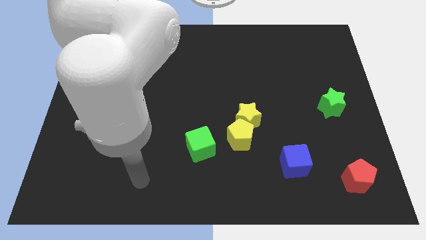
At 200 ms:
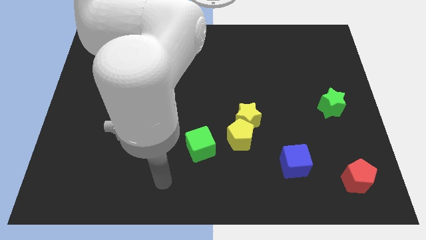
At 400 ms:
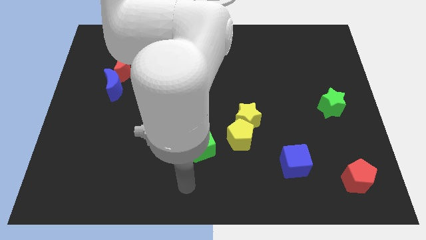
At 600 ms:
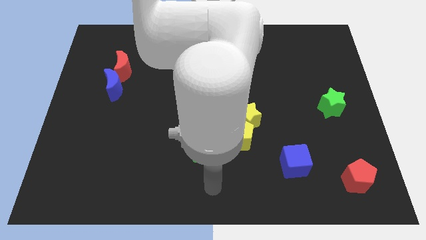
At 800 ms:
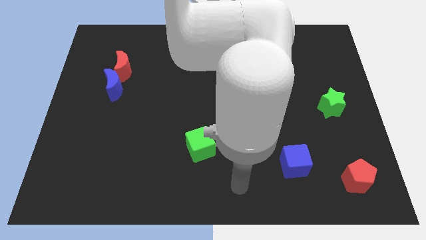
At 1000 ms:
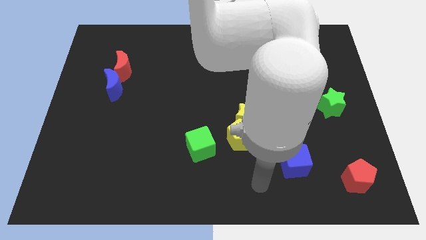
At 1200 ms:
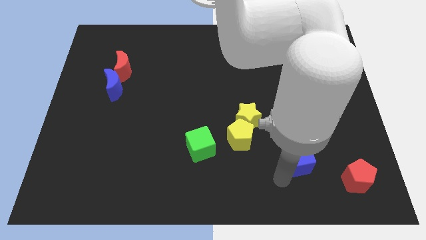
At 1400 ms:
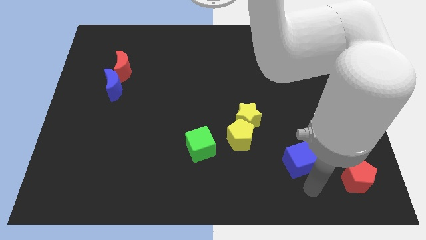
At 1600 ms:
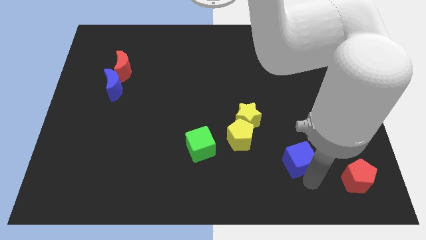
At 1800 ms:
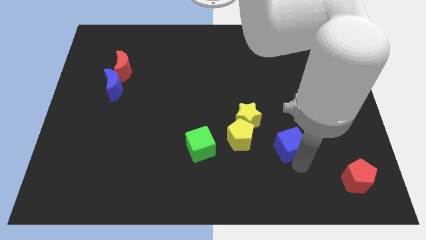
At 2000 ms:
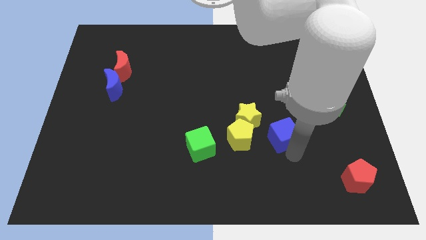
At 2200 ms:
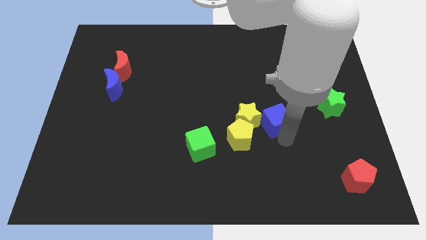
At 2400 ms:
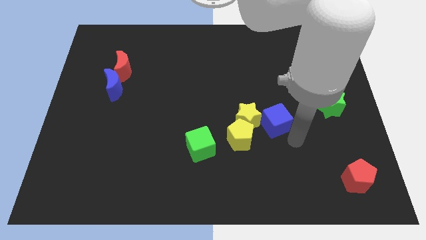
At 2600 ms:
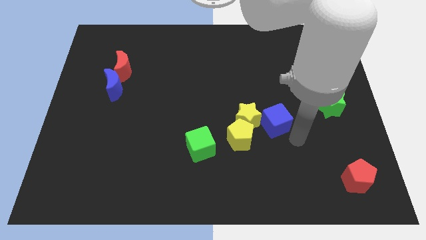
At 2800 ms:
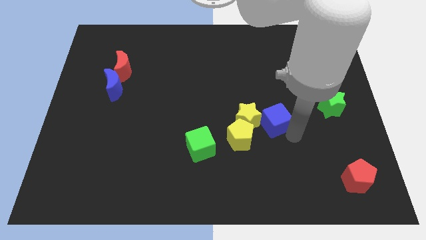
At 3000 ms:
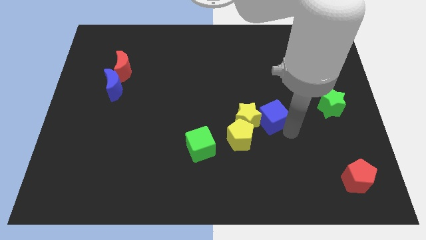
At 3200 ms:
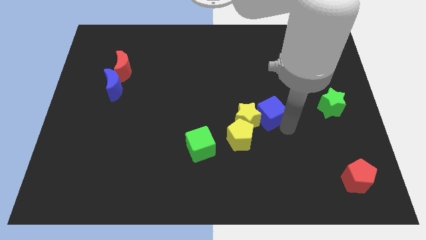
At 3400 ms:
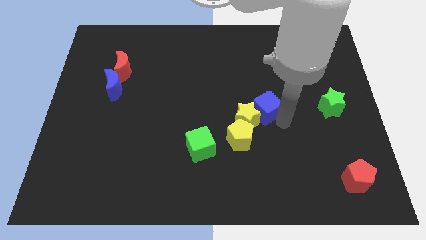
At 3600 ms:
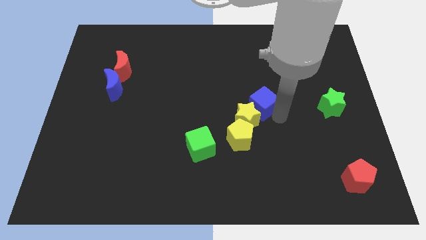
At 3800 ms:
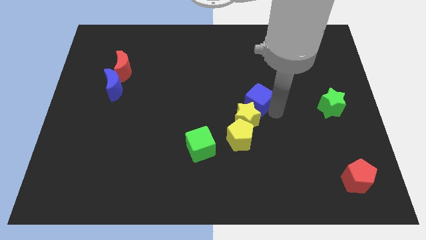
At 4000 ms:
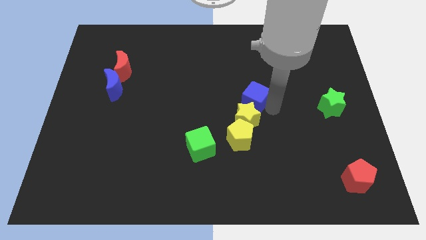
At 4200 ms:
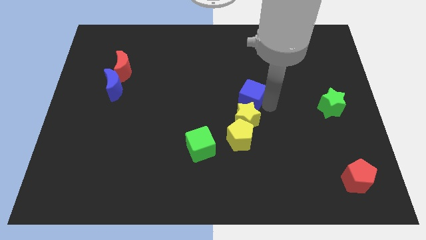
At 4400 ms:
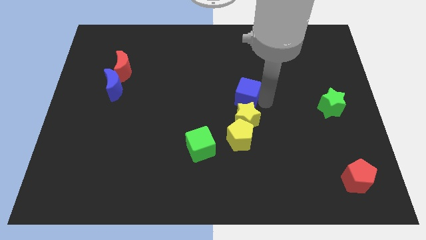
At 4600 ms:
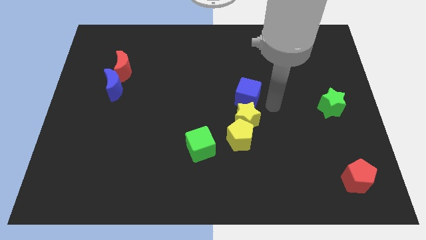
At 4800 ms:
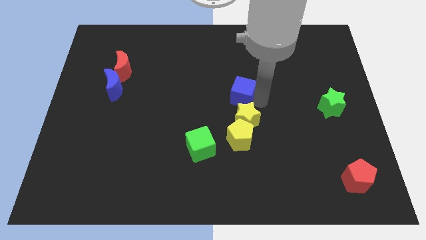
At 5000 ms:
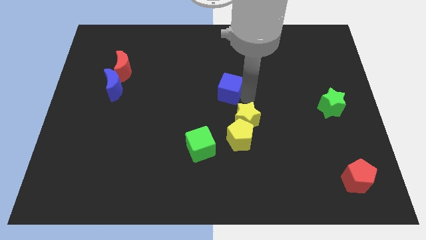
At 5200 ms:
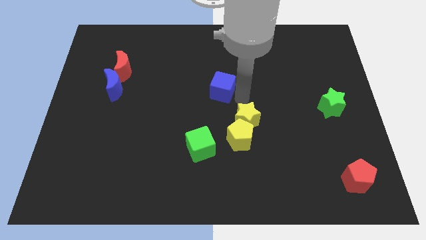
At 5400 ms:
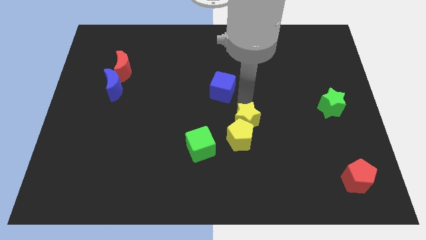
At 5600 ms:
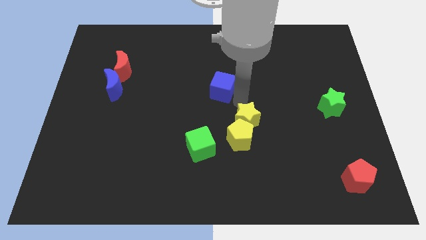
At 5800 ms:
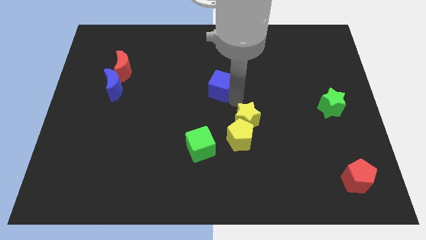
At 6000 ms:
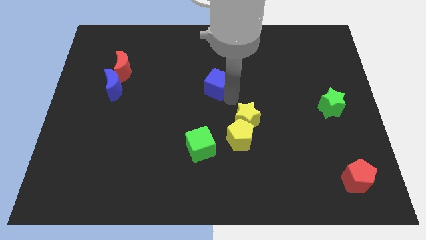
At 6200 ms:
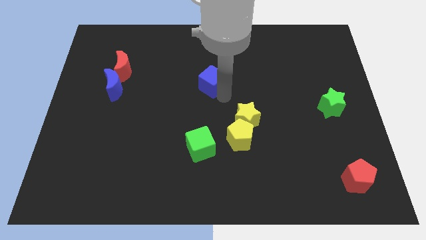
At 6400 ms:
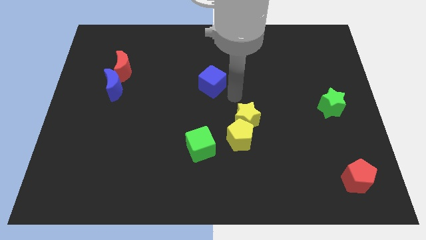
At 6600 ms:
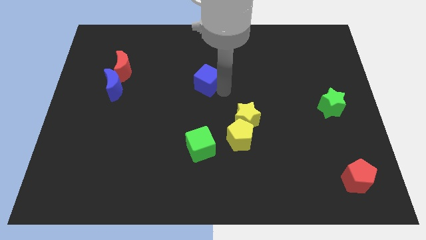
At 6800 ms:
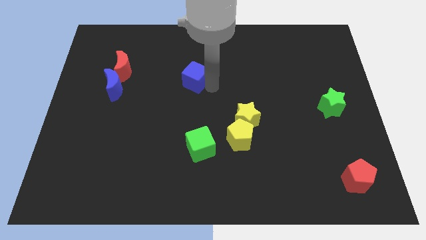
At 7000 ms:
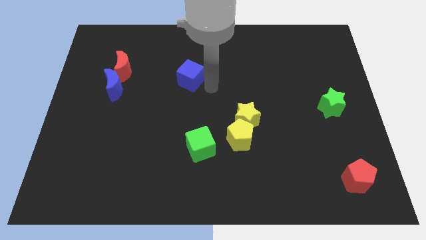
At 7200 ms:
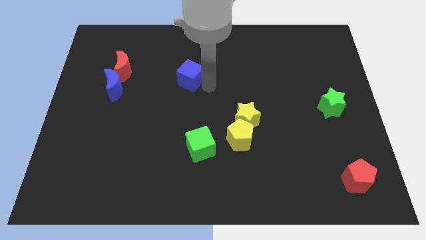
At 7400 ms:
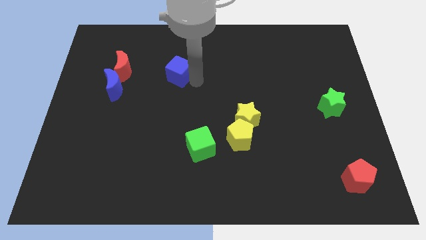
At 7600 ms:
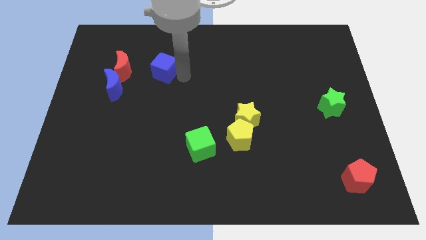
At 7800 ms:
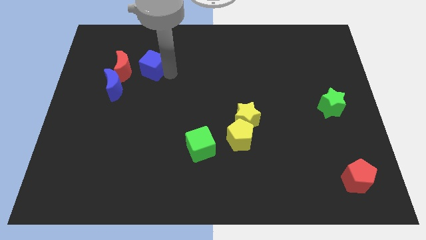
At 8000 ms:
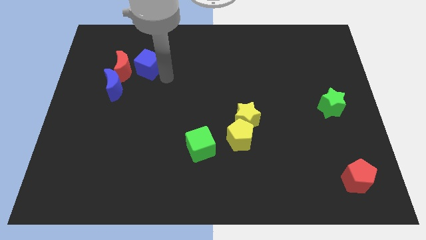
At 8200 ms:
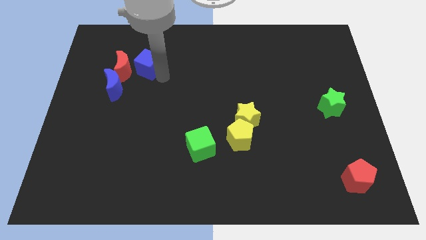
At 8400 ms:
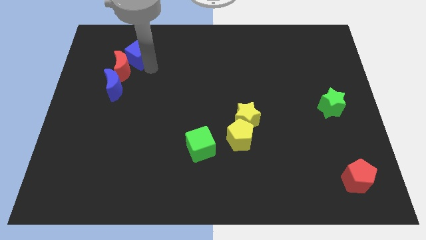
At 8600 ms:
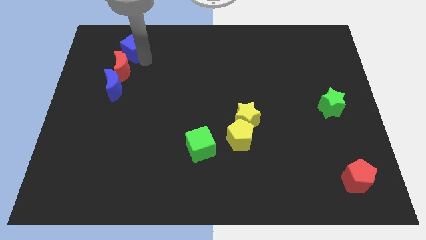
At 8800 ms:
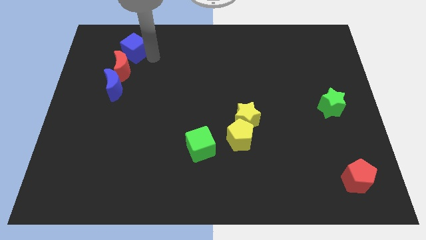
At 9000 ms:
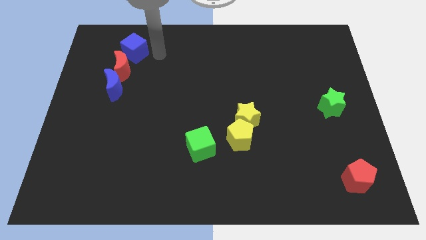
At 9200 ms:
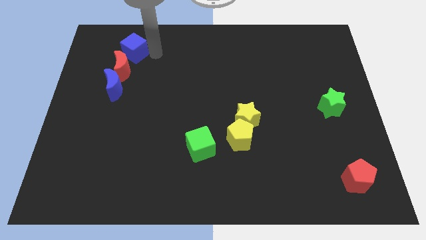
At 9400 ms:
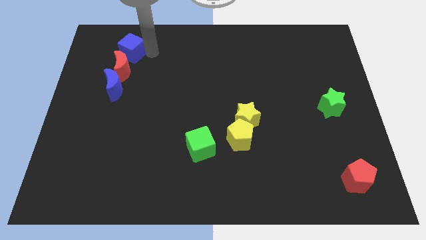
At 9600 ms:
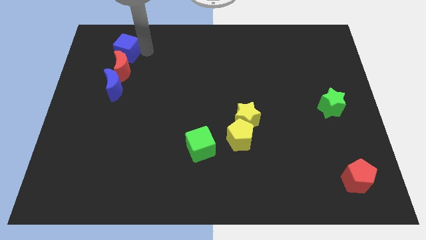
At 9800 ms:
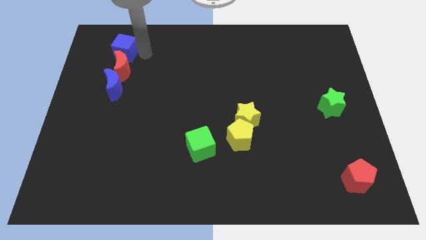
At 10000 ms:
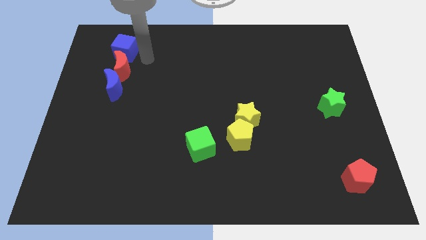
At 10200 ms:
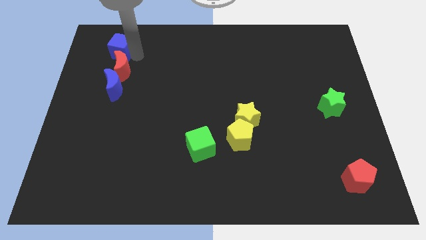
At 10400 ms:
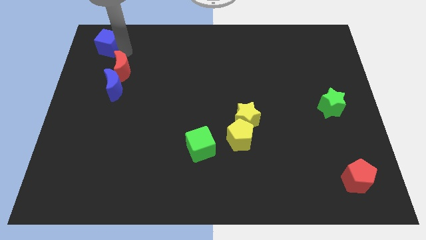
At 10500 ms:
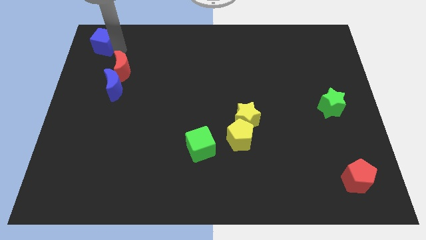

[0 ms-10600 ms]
put the blue cube to the upper left corner

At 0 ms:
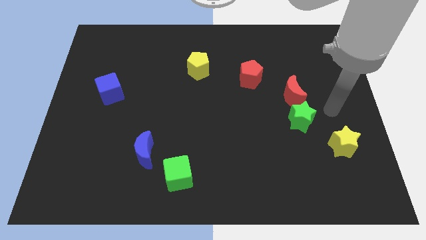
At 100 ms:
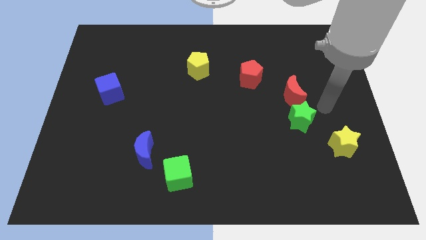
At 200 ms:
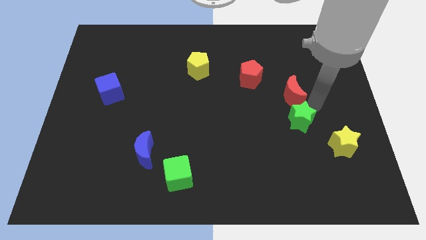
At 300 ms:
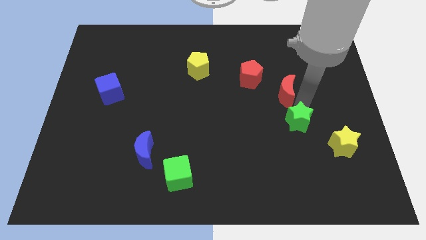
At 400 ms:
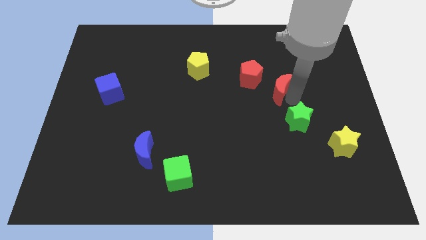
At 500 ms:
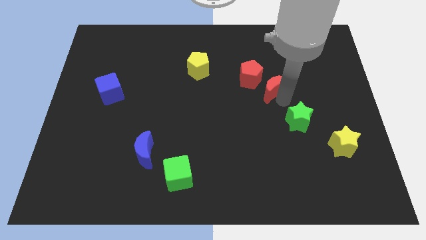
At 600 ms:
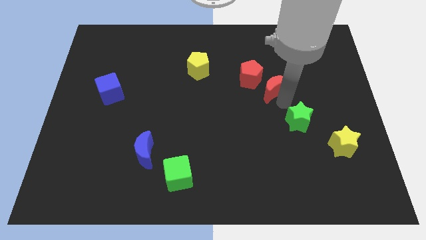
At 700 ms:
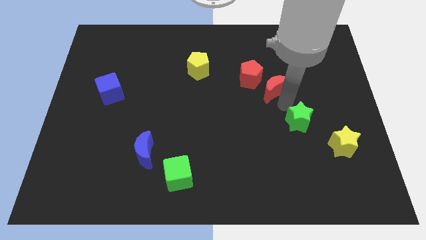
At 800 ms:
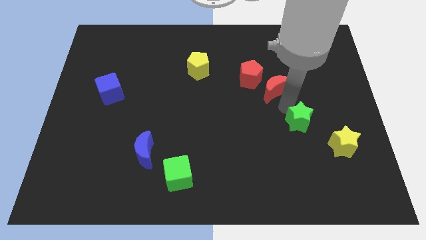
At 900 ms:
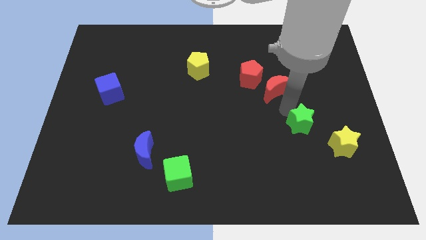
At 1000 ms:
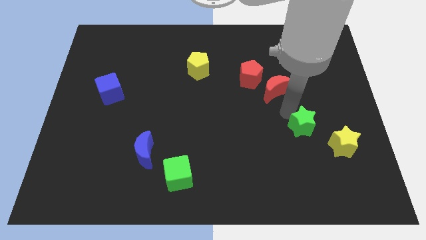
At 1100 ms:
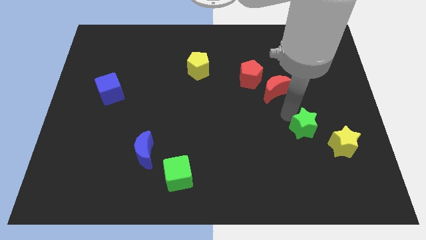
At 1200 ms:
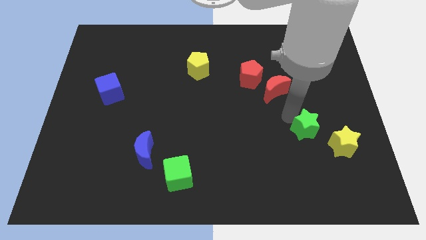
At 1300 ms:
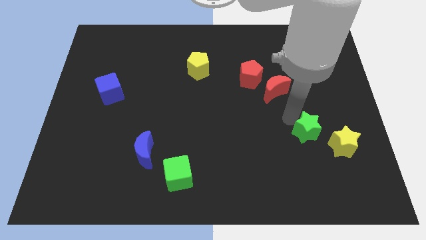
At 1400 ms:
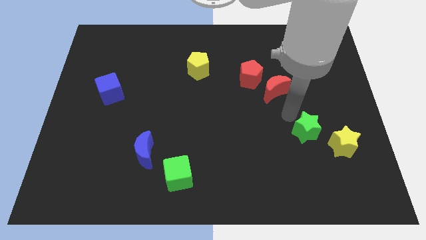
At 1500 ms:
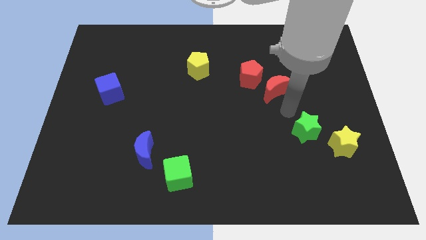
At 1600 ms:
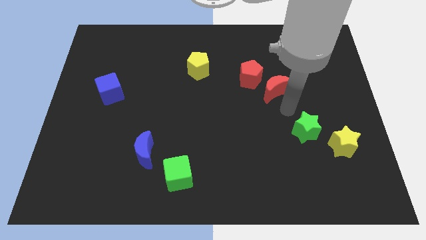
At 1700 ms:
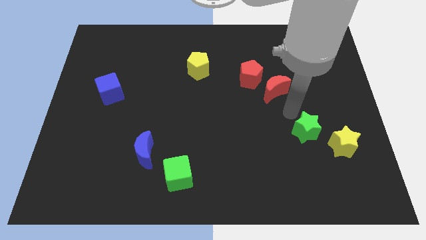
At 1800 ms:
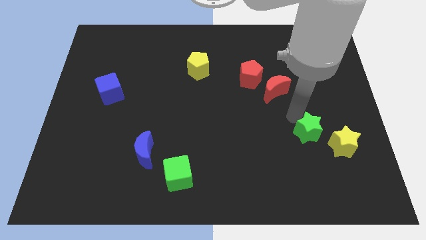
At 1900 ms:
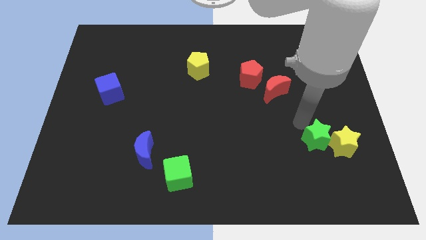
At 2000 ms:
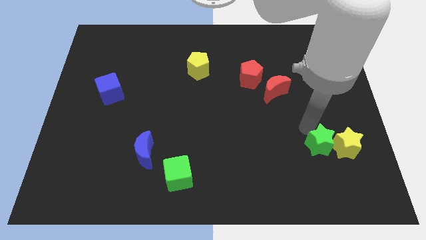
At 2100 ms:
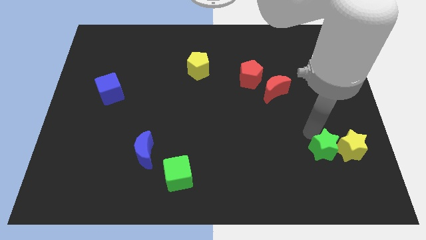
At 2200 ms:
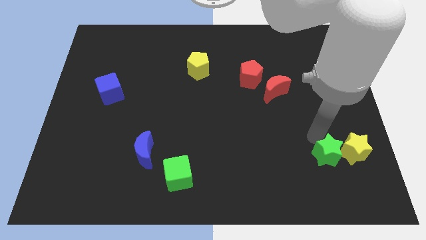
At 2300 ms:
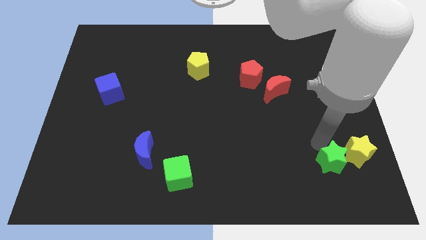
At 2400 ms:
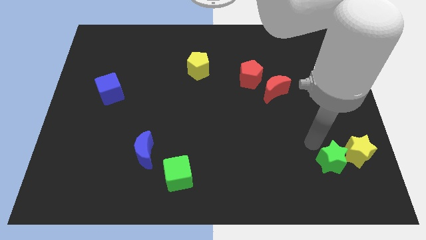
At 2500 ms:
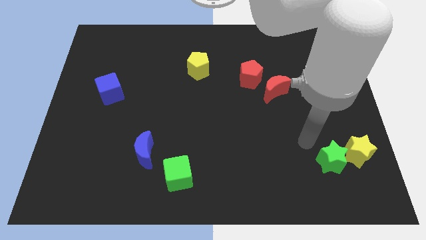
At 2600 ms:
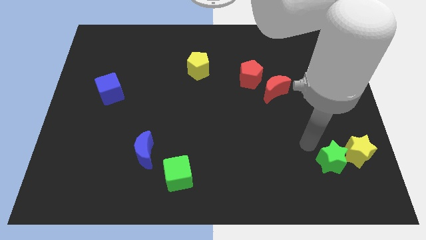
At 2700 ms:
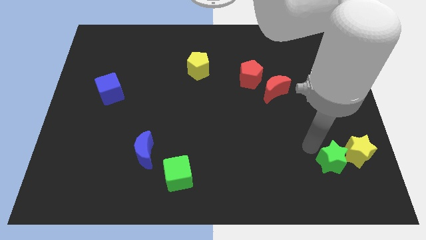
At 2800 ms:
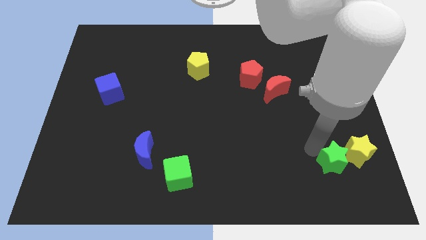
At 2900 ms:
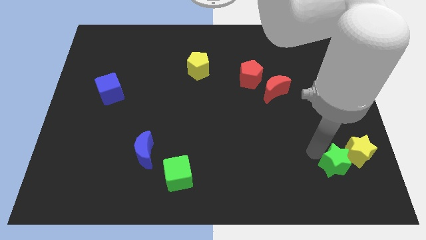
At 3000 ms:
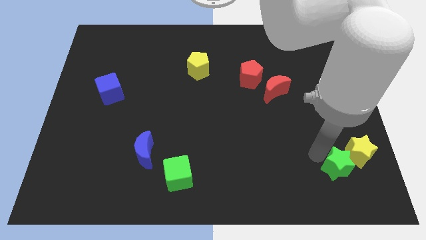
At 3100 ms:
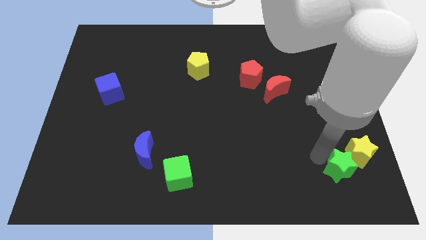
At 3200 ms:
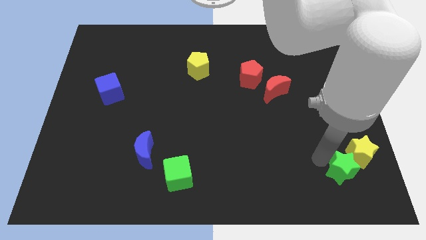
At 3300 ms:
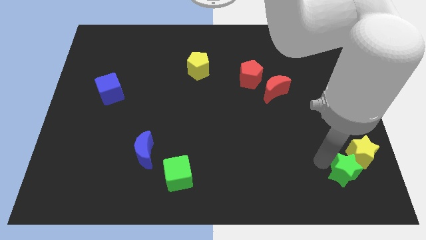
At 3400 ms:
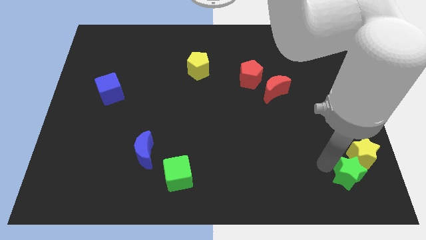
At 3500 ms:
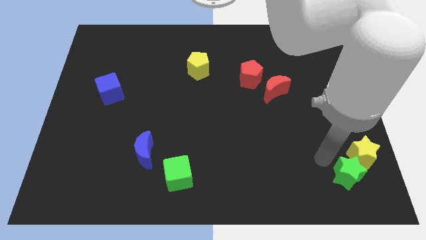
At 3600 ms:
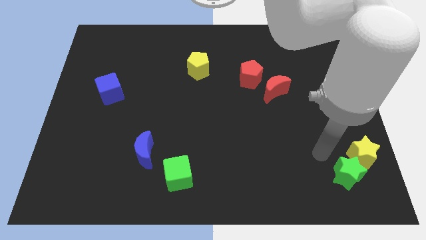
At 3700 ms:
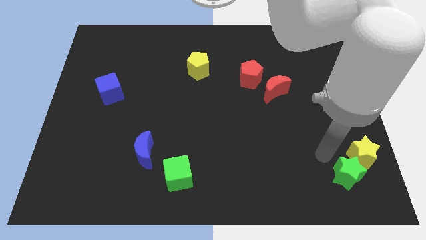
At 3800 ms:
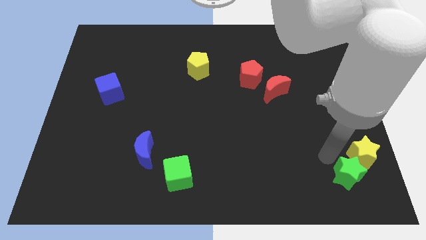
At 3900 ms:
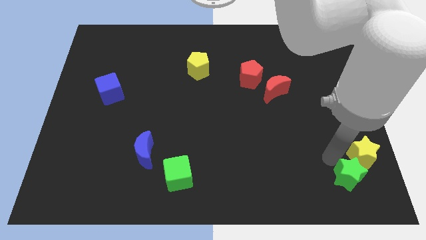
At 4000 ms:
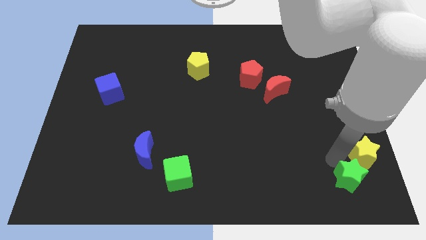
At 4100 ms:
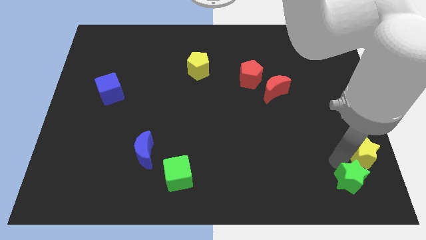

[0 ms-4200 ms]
put the green star to the bottom right
